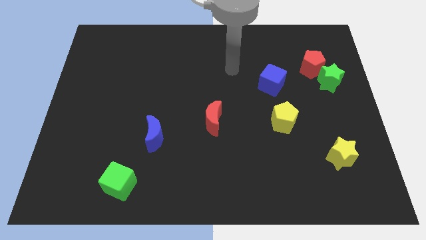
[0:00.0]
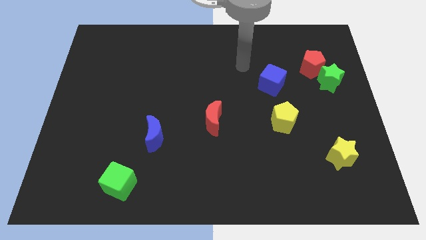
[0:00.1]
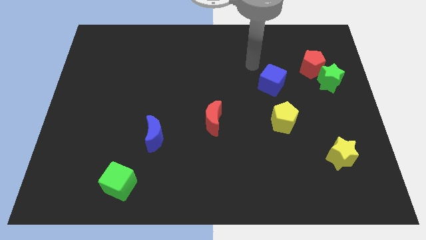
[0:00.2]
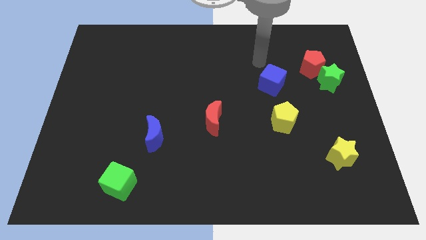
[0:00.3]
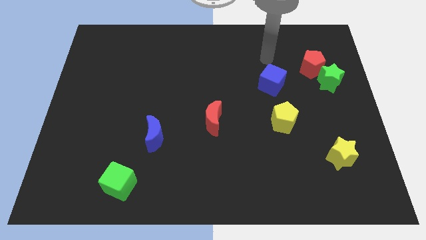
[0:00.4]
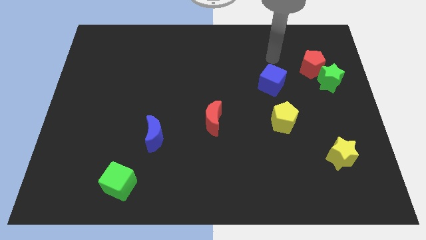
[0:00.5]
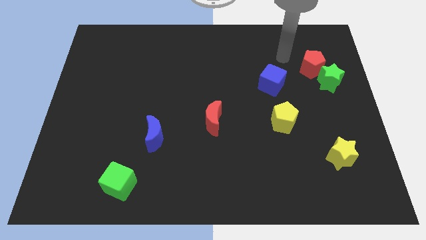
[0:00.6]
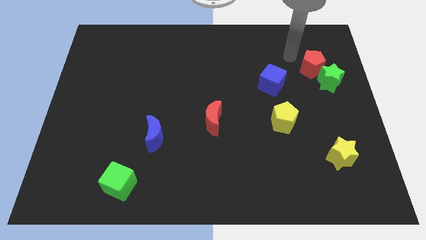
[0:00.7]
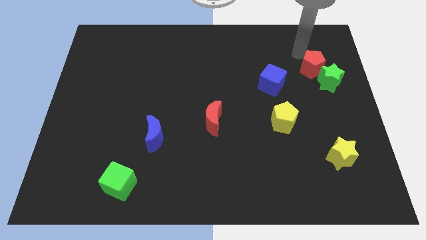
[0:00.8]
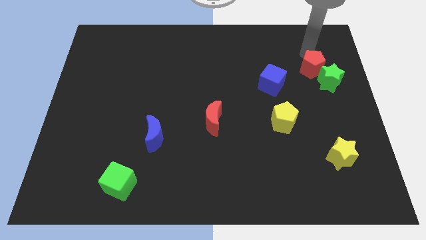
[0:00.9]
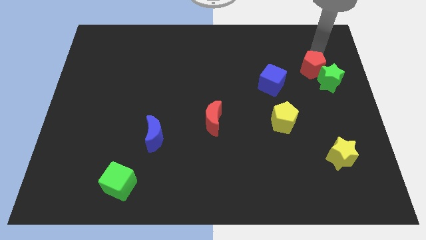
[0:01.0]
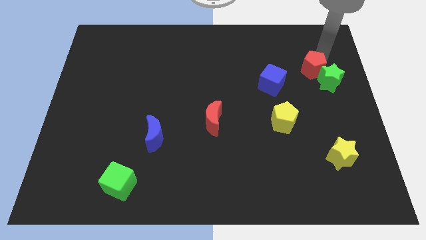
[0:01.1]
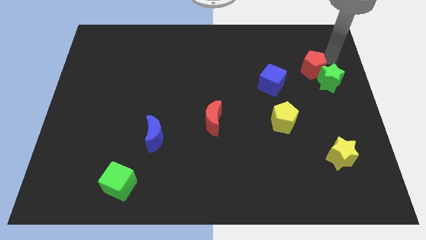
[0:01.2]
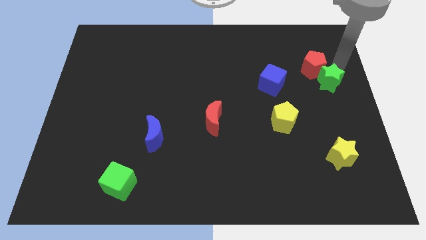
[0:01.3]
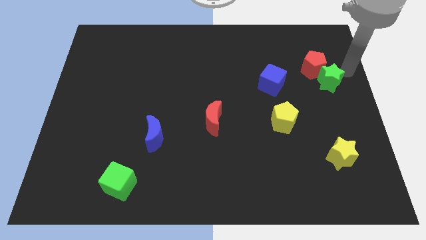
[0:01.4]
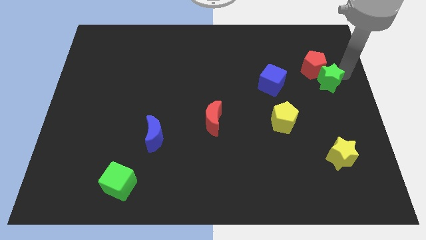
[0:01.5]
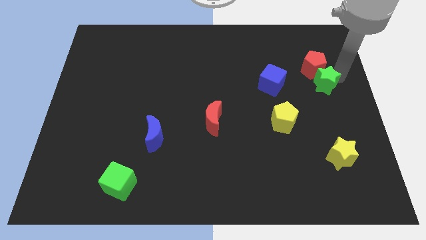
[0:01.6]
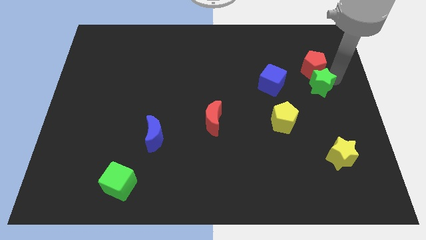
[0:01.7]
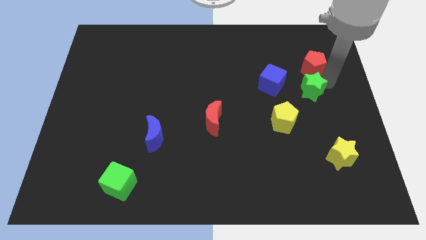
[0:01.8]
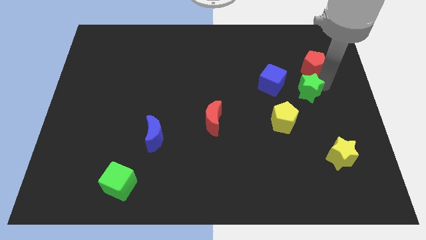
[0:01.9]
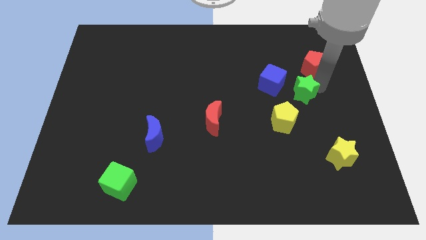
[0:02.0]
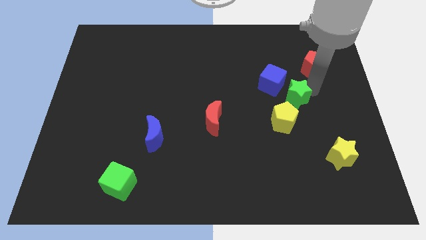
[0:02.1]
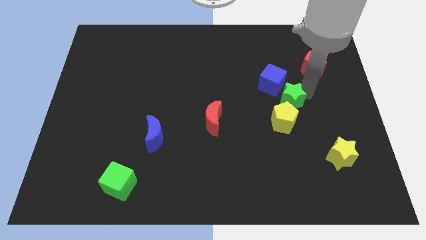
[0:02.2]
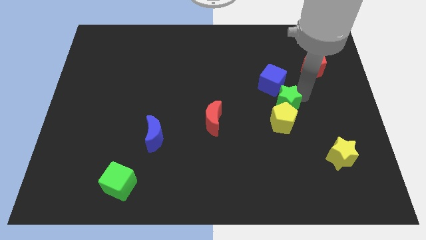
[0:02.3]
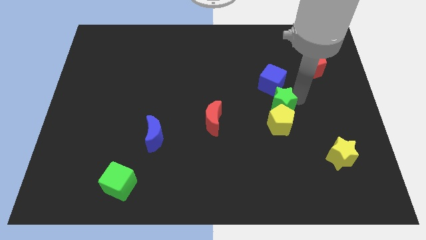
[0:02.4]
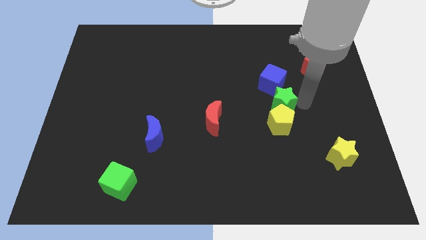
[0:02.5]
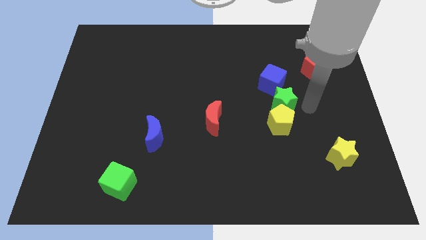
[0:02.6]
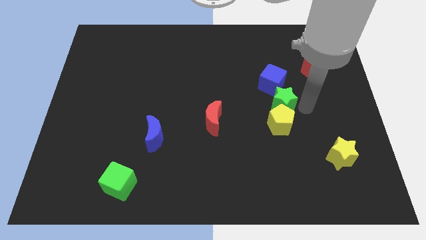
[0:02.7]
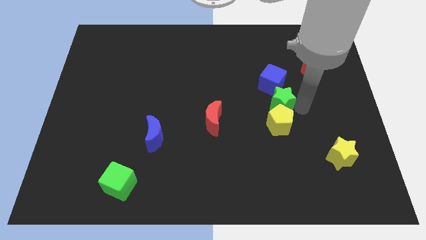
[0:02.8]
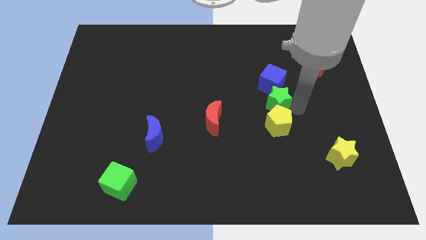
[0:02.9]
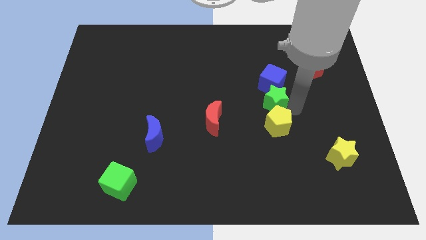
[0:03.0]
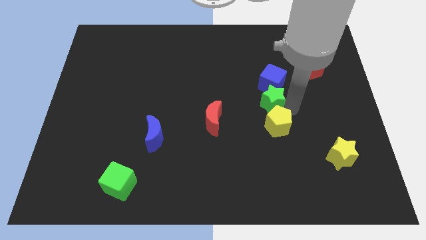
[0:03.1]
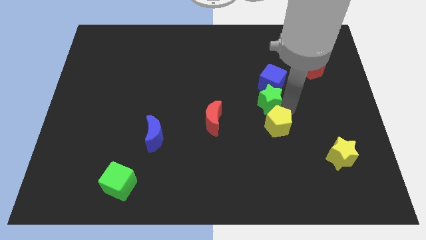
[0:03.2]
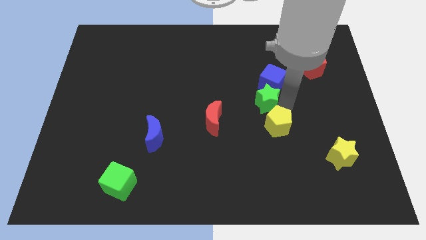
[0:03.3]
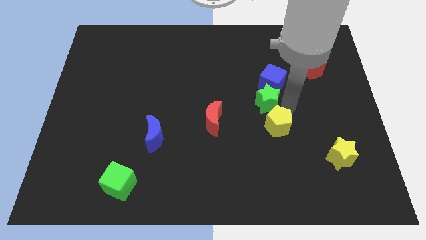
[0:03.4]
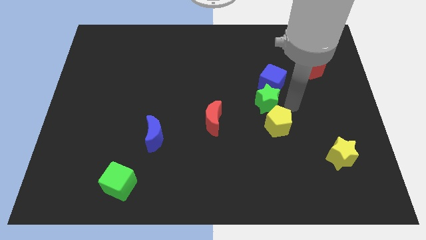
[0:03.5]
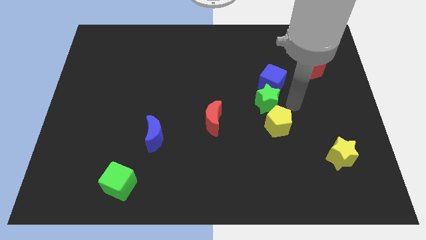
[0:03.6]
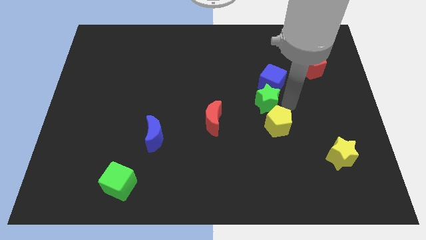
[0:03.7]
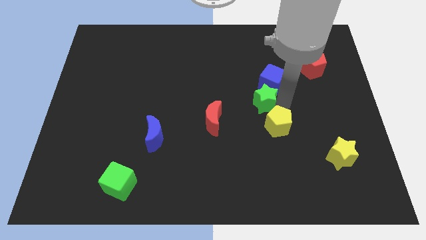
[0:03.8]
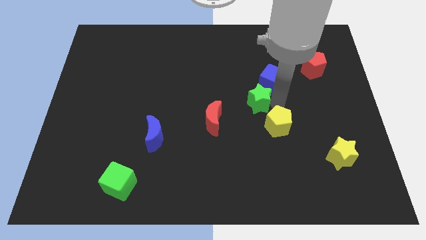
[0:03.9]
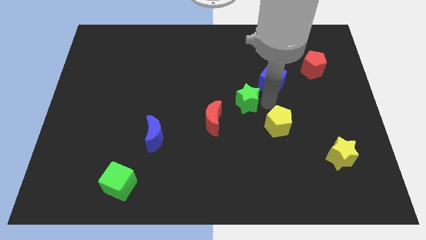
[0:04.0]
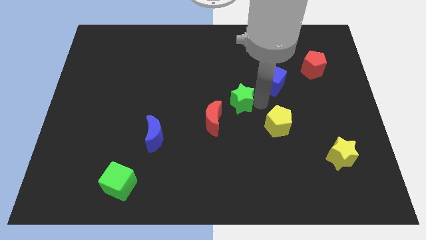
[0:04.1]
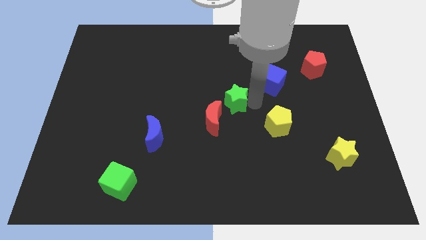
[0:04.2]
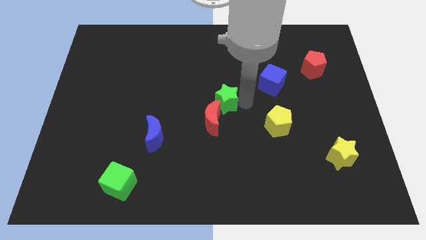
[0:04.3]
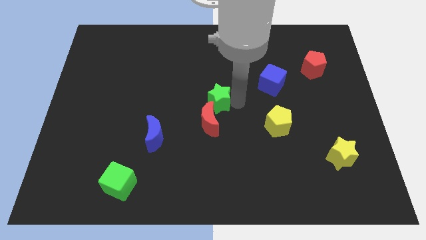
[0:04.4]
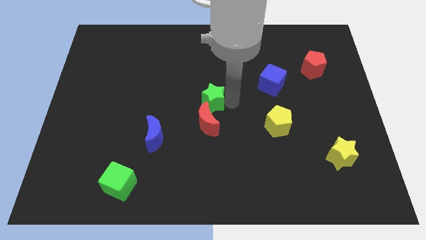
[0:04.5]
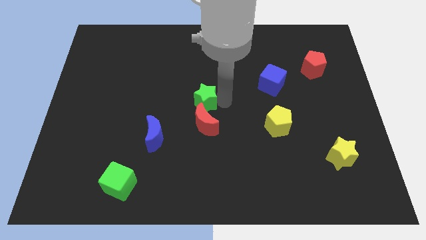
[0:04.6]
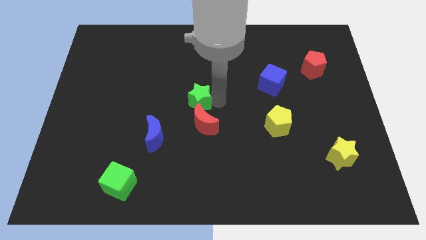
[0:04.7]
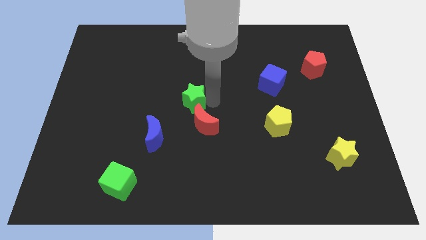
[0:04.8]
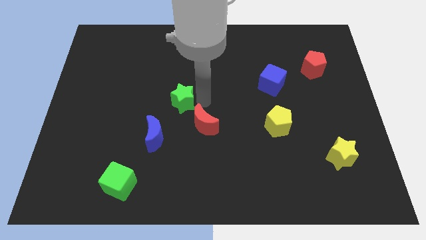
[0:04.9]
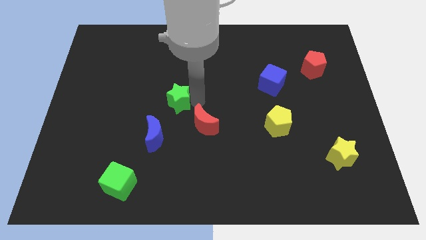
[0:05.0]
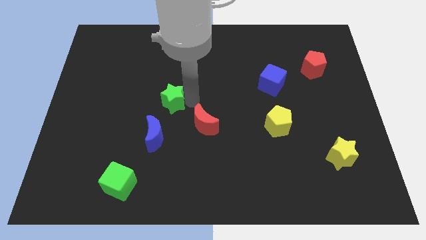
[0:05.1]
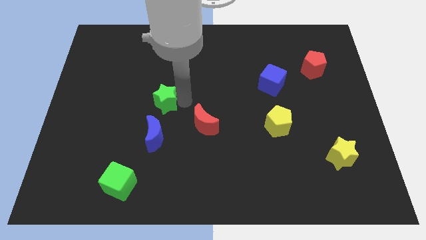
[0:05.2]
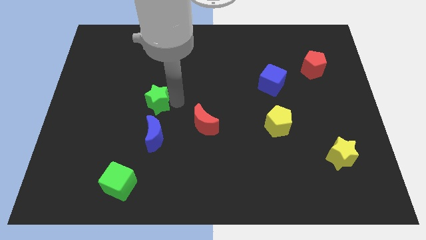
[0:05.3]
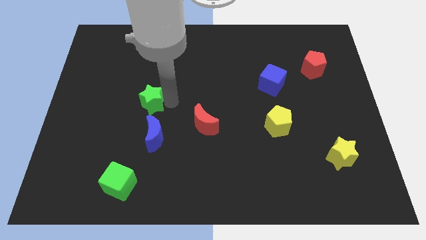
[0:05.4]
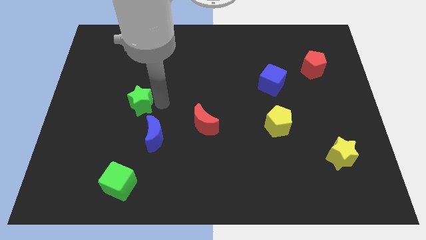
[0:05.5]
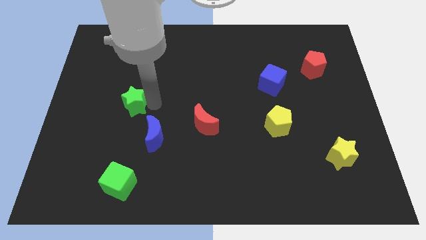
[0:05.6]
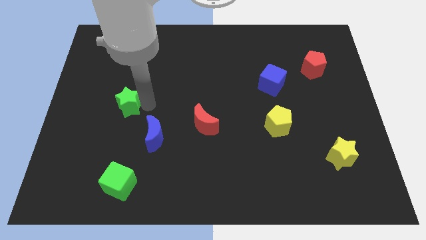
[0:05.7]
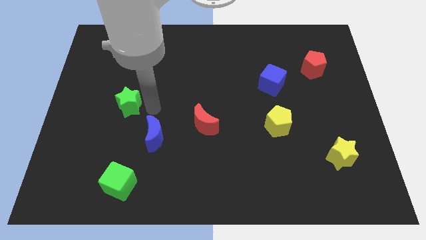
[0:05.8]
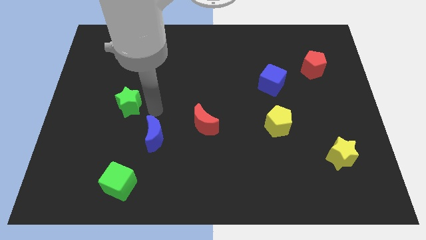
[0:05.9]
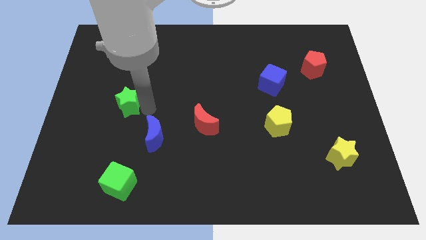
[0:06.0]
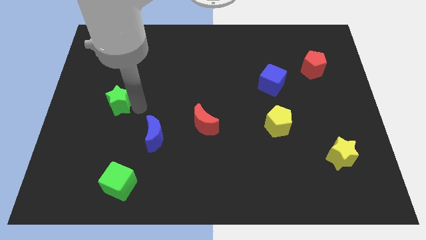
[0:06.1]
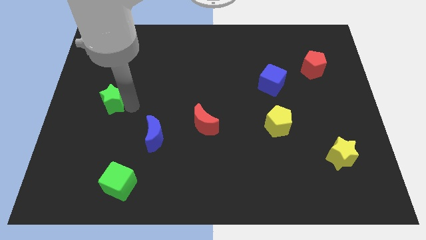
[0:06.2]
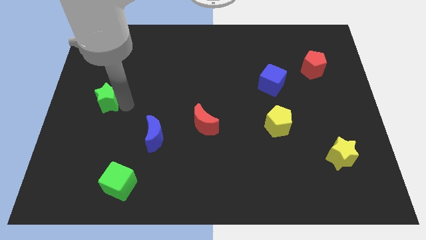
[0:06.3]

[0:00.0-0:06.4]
move the green star to the left side

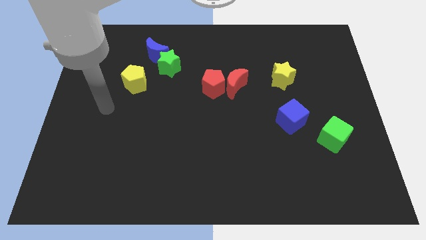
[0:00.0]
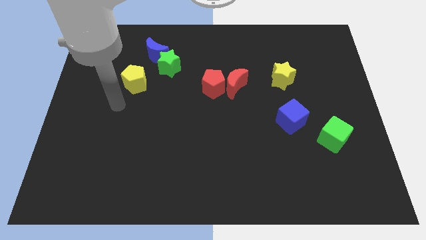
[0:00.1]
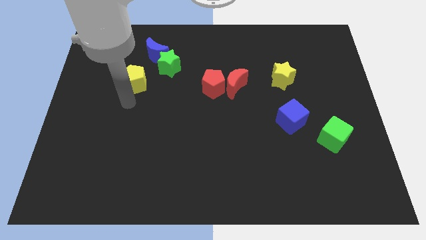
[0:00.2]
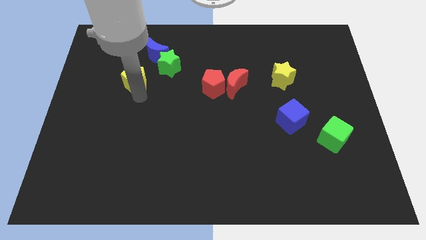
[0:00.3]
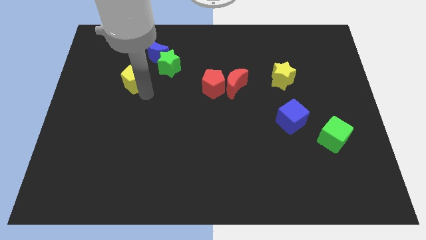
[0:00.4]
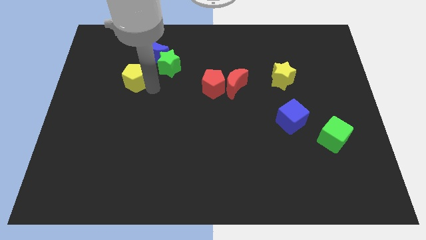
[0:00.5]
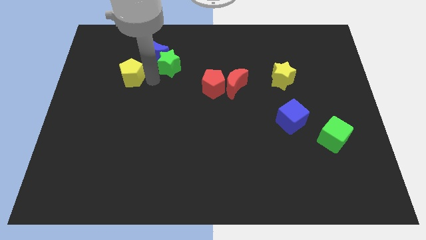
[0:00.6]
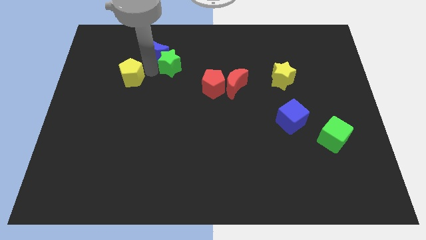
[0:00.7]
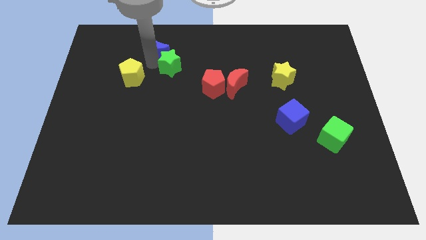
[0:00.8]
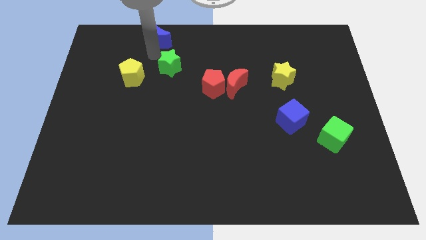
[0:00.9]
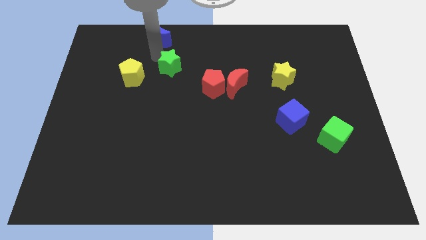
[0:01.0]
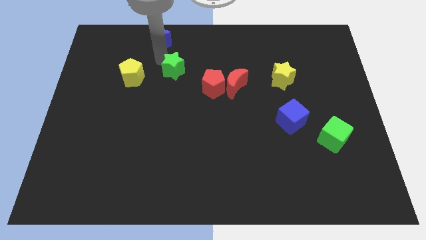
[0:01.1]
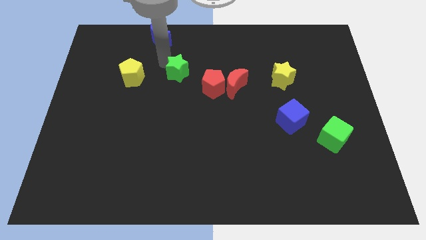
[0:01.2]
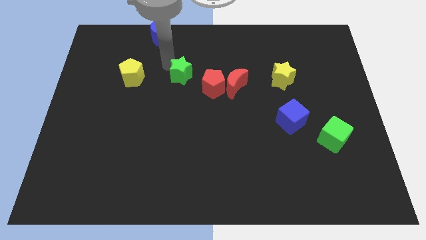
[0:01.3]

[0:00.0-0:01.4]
slide the green star to the middle
